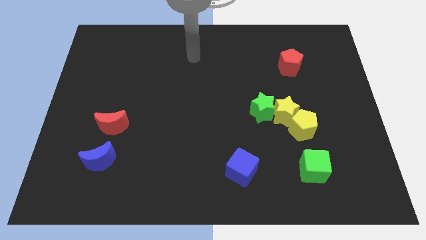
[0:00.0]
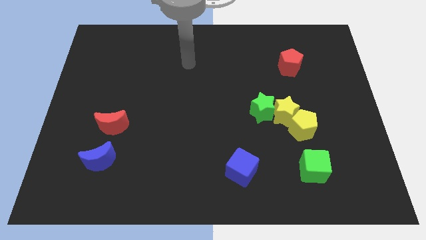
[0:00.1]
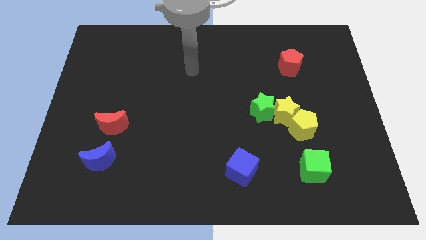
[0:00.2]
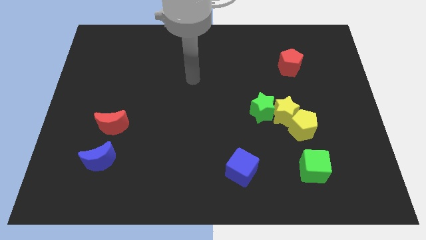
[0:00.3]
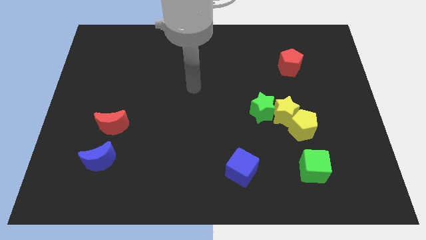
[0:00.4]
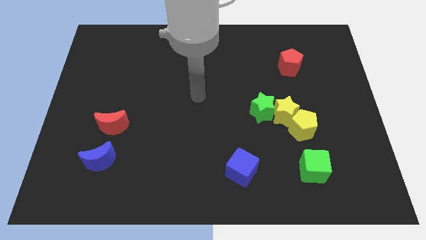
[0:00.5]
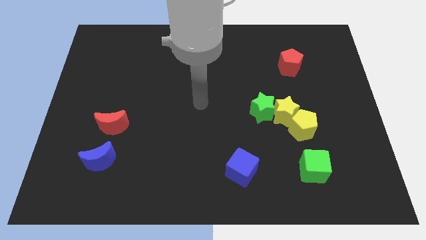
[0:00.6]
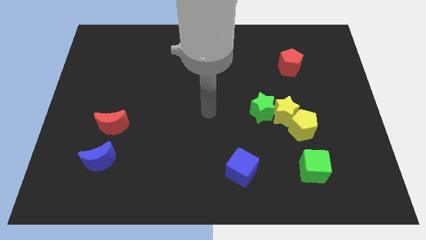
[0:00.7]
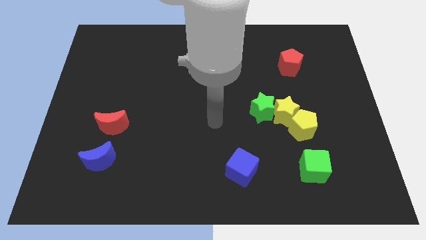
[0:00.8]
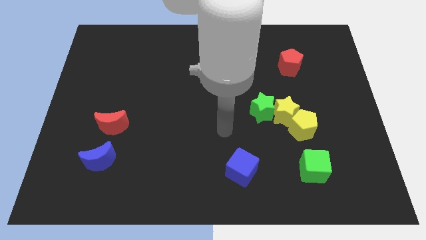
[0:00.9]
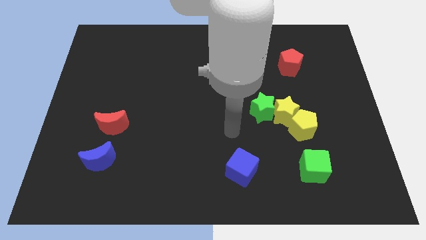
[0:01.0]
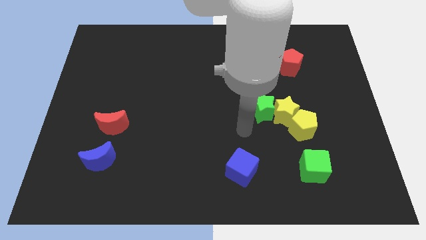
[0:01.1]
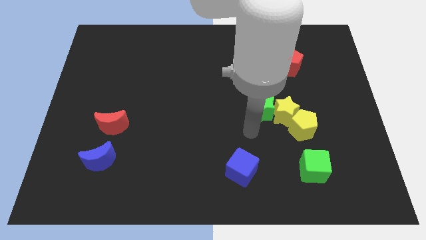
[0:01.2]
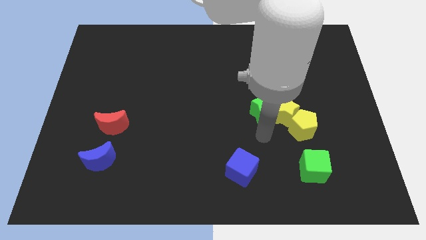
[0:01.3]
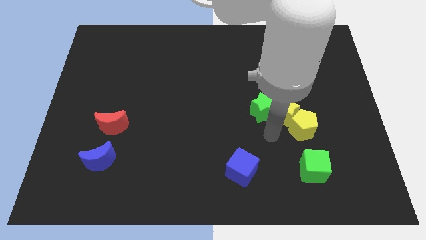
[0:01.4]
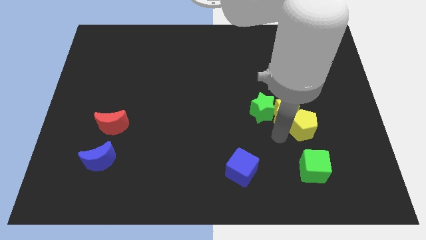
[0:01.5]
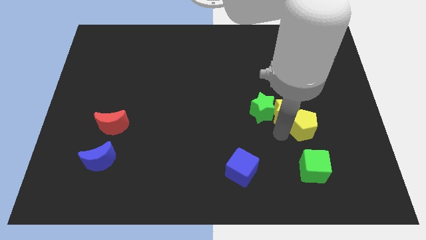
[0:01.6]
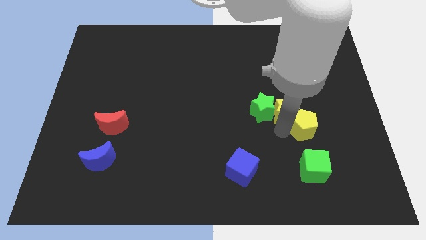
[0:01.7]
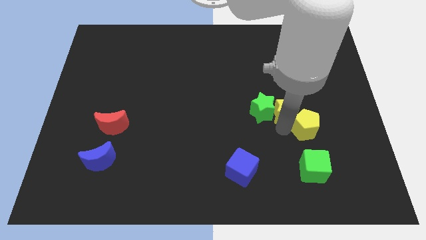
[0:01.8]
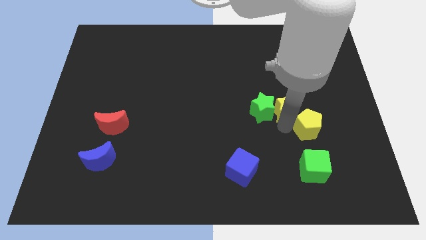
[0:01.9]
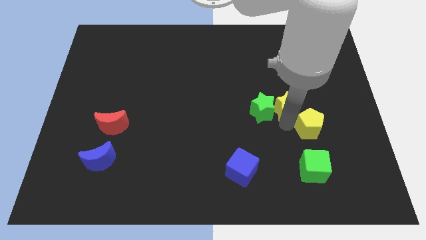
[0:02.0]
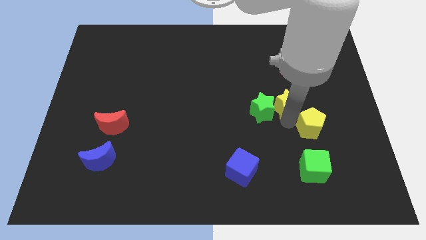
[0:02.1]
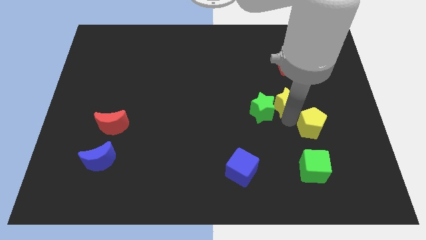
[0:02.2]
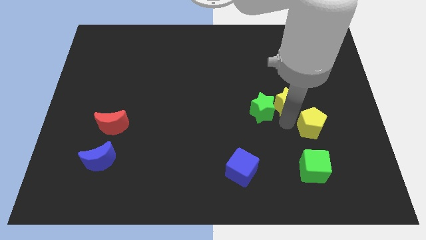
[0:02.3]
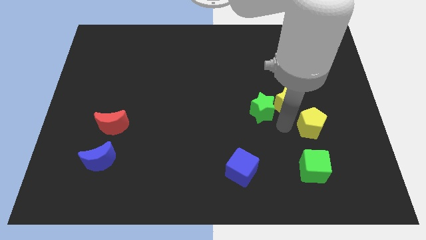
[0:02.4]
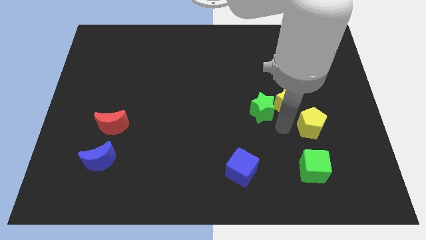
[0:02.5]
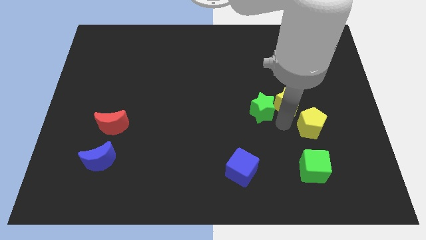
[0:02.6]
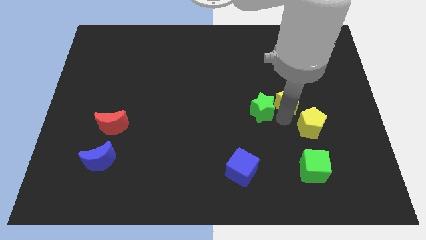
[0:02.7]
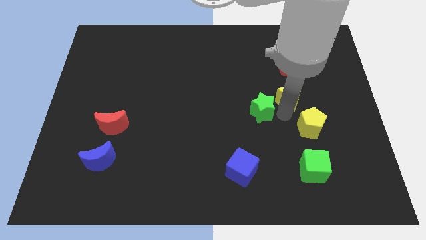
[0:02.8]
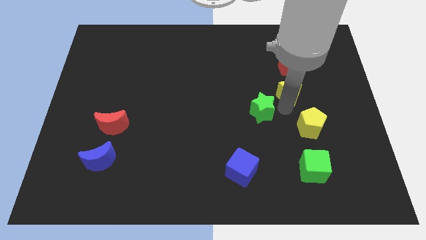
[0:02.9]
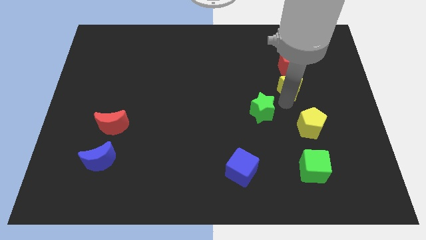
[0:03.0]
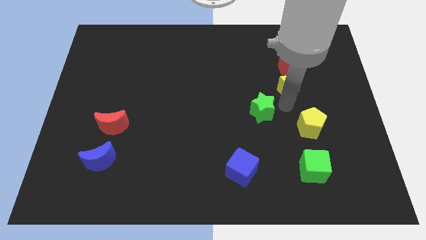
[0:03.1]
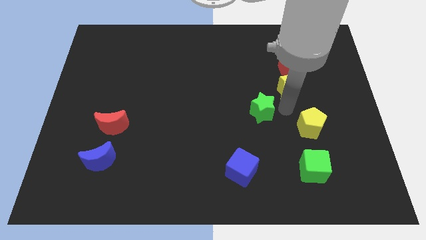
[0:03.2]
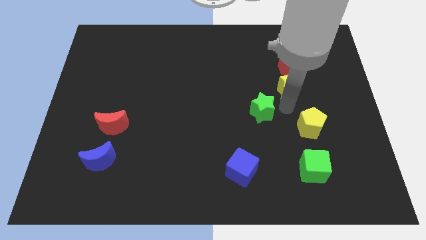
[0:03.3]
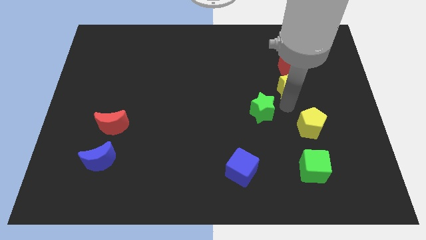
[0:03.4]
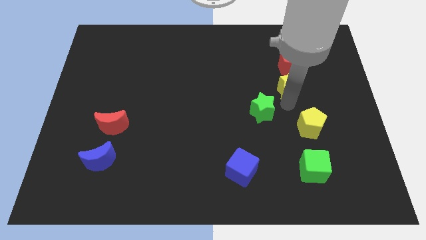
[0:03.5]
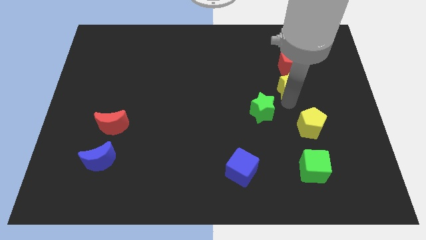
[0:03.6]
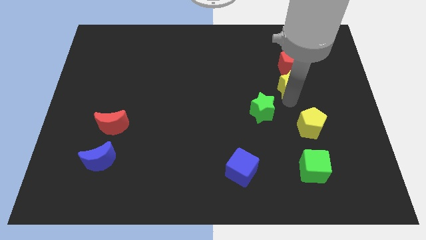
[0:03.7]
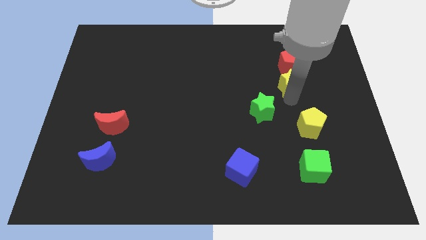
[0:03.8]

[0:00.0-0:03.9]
pull the yellow star apart from the green star and yellow pentagon

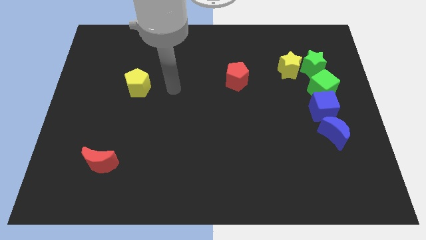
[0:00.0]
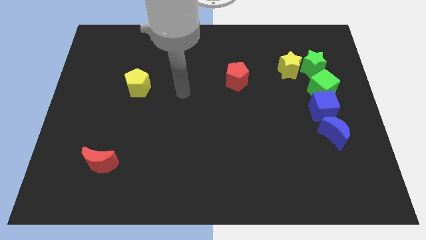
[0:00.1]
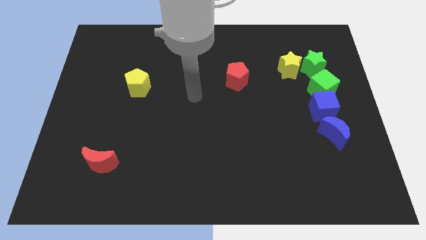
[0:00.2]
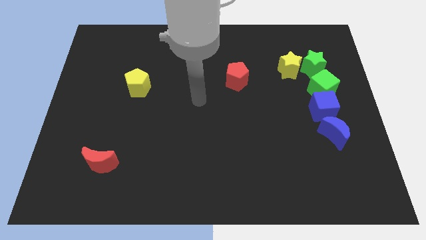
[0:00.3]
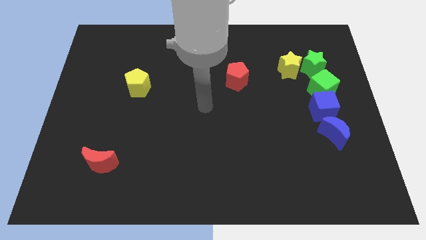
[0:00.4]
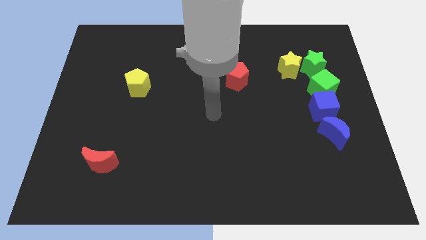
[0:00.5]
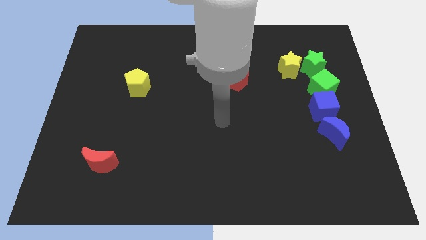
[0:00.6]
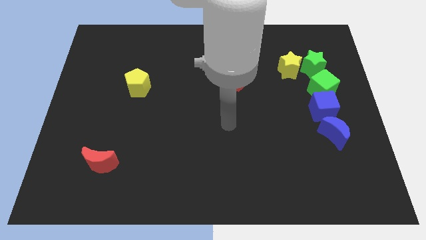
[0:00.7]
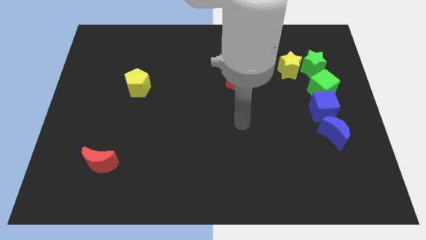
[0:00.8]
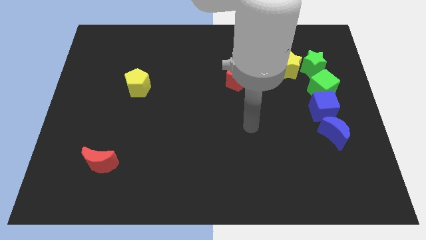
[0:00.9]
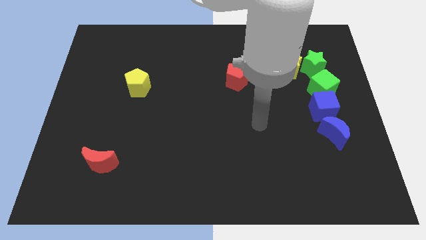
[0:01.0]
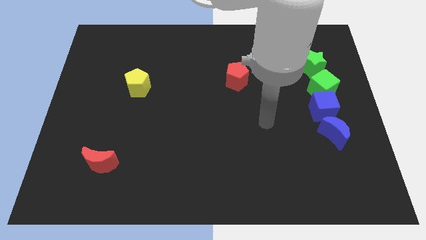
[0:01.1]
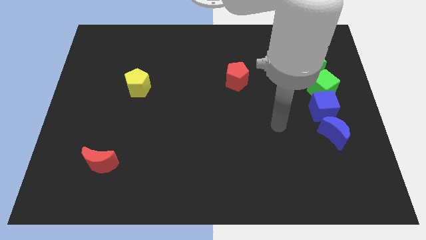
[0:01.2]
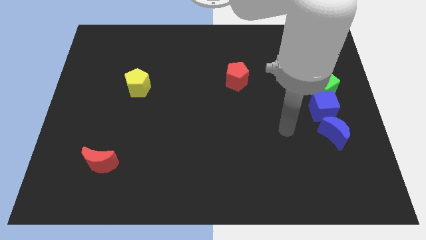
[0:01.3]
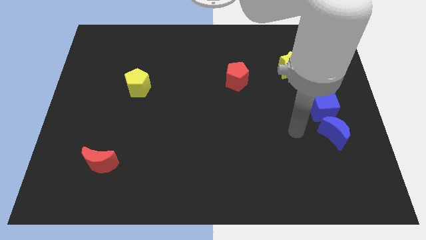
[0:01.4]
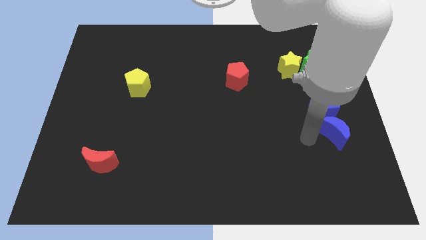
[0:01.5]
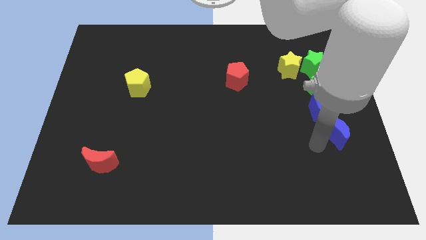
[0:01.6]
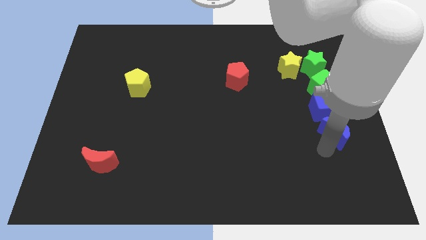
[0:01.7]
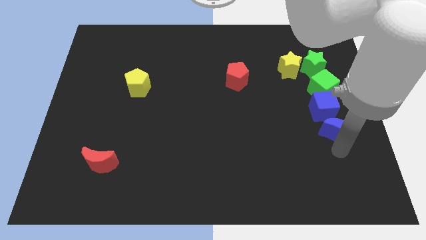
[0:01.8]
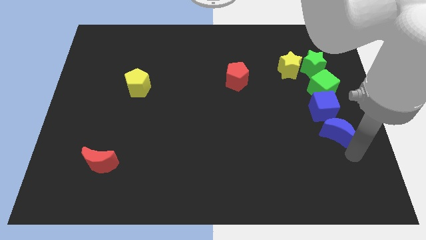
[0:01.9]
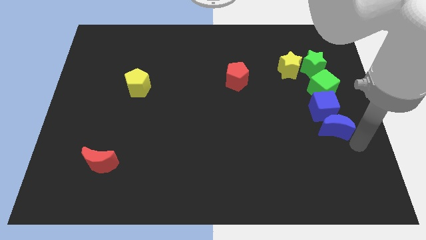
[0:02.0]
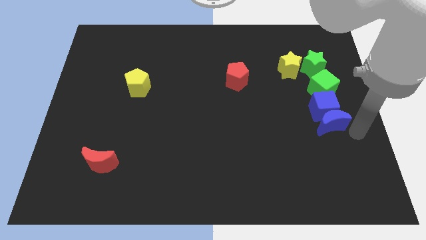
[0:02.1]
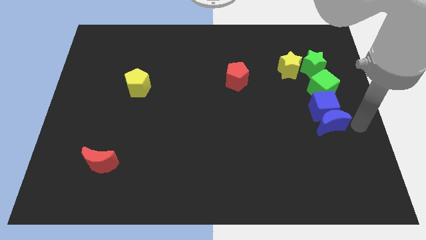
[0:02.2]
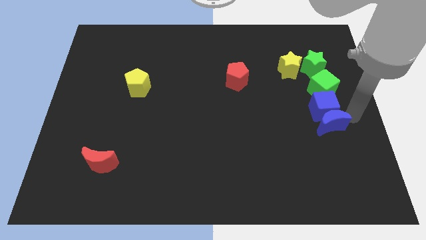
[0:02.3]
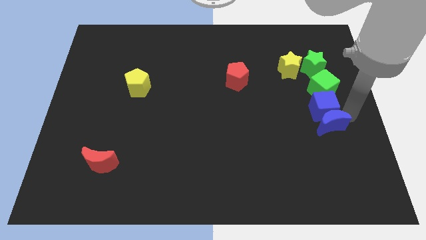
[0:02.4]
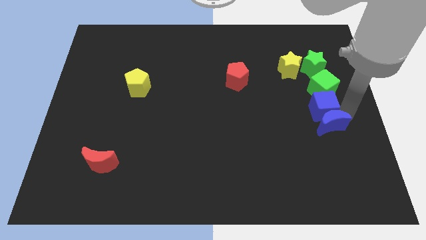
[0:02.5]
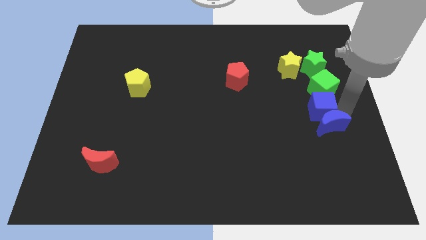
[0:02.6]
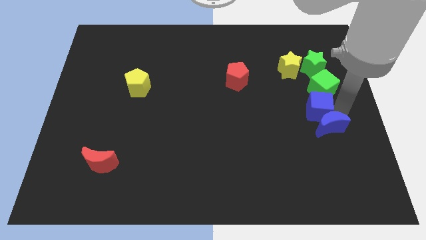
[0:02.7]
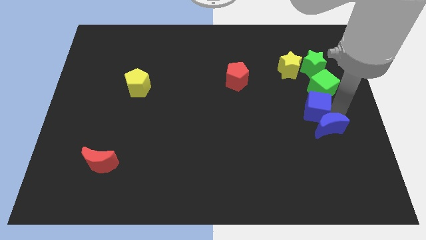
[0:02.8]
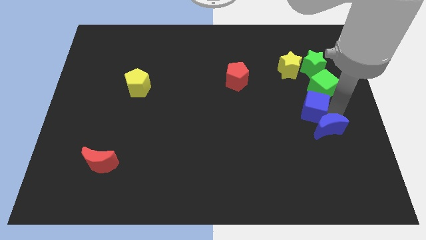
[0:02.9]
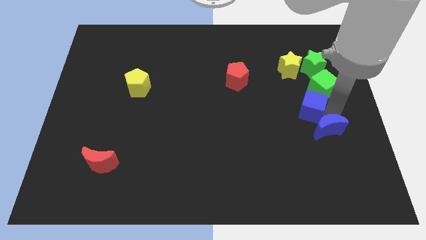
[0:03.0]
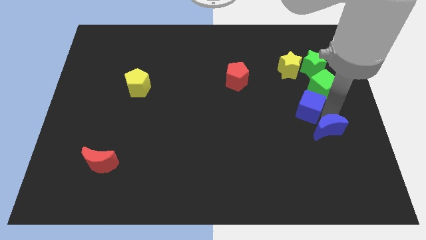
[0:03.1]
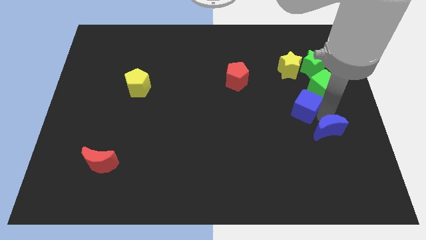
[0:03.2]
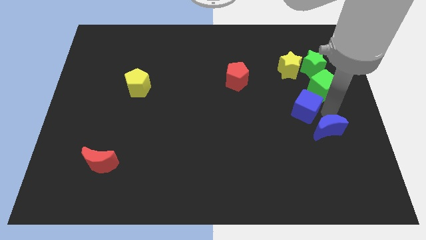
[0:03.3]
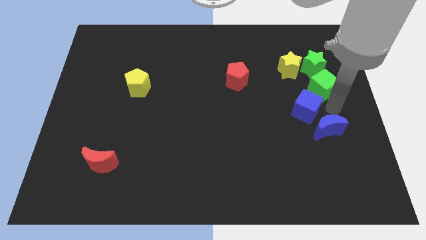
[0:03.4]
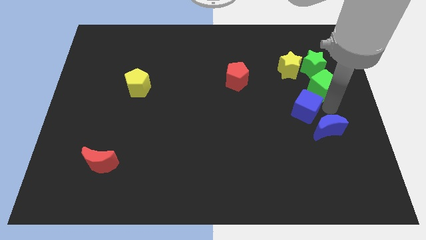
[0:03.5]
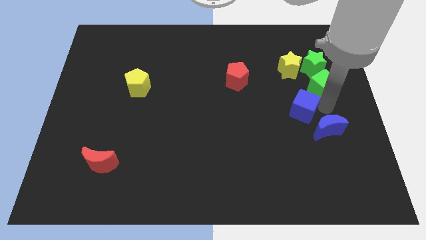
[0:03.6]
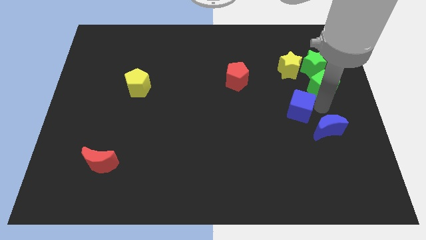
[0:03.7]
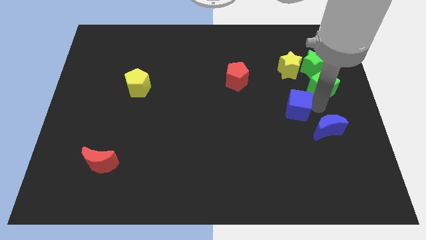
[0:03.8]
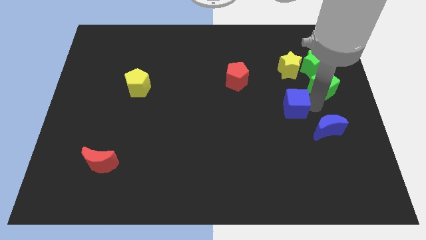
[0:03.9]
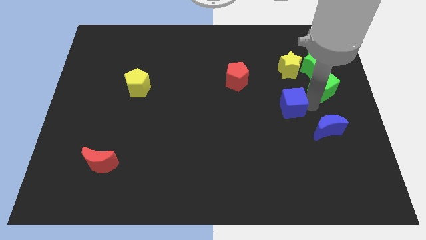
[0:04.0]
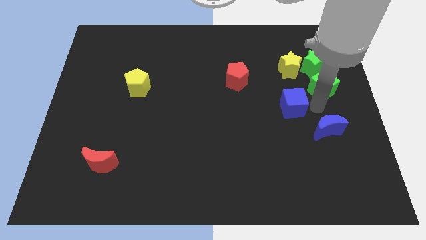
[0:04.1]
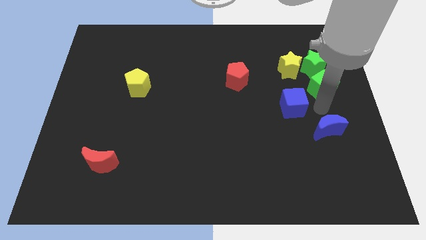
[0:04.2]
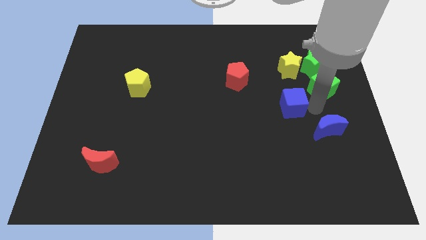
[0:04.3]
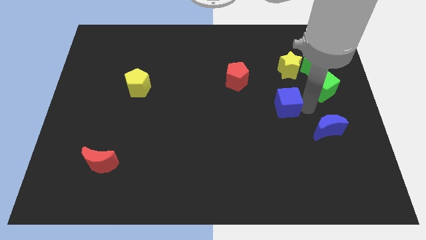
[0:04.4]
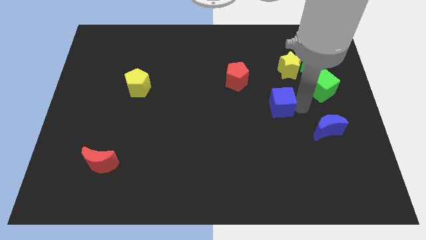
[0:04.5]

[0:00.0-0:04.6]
pull the blue cube apart from the green cube and blue moon

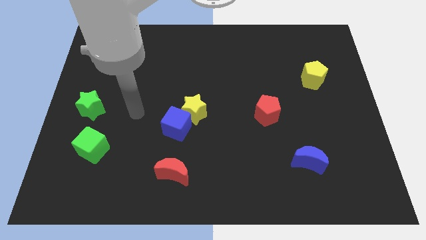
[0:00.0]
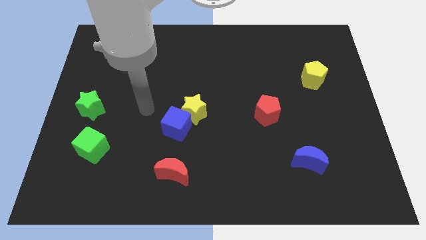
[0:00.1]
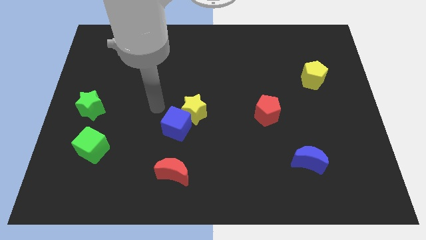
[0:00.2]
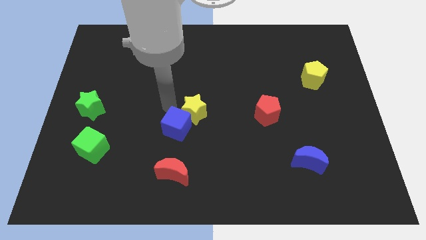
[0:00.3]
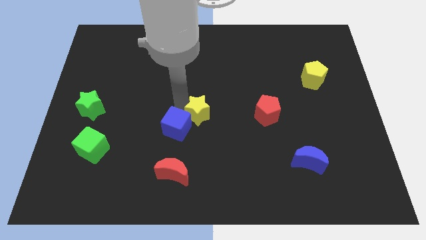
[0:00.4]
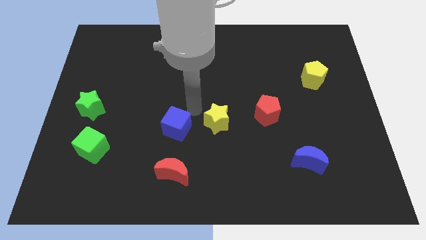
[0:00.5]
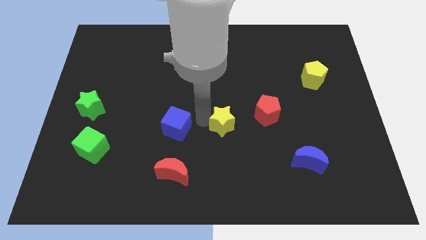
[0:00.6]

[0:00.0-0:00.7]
pull the blue cube apart from the yellow star

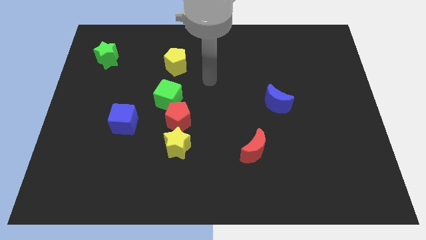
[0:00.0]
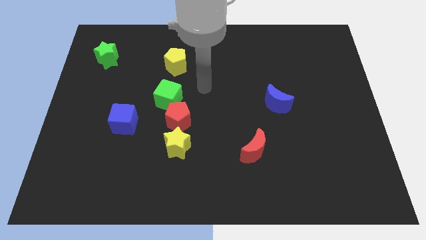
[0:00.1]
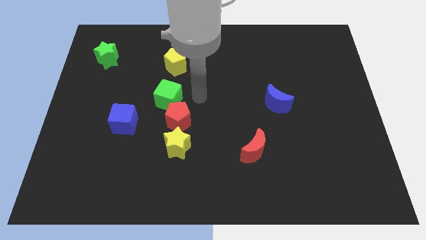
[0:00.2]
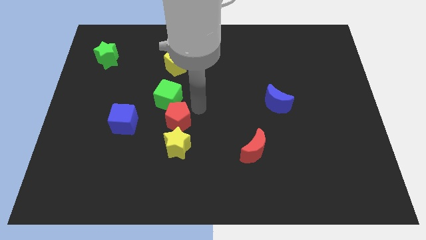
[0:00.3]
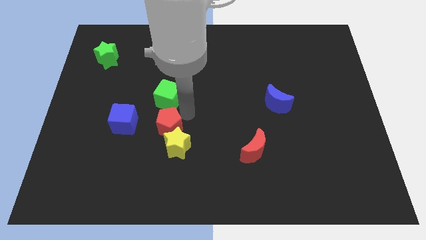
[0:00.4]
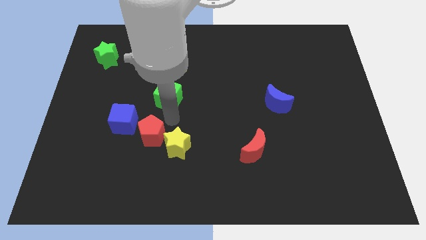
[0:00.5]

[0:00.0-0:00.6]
separate the green cube from the red pentagon
